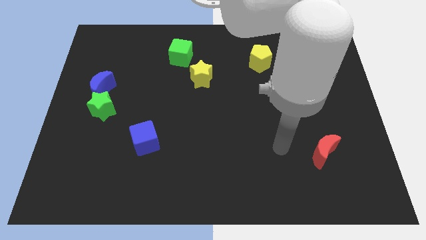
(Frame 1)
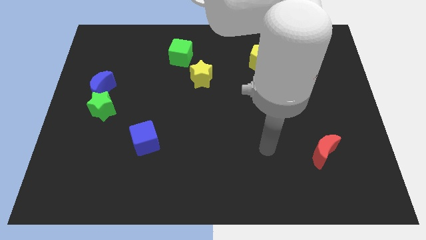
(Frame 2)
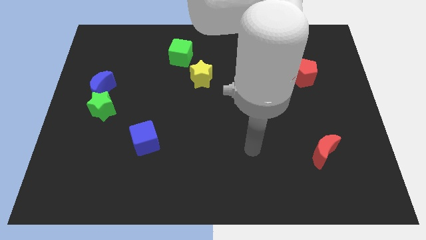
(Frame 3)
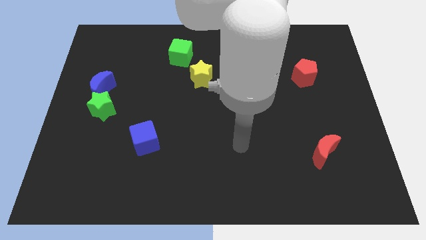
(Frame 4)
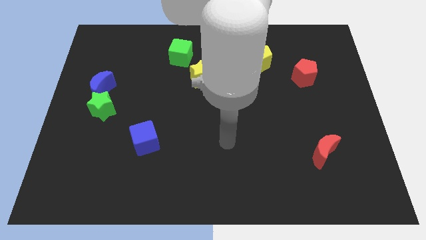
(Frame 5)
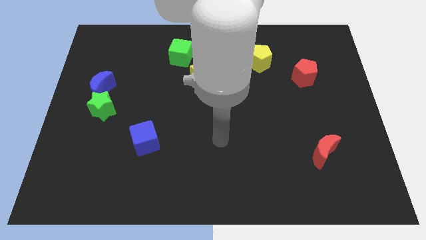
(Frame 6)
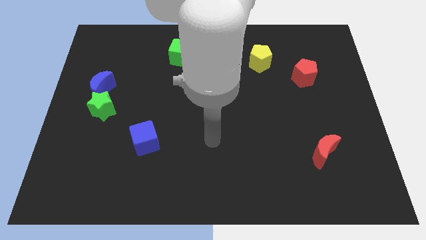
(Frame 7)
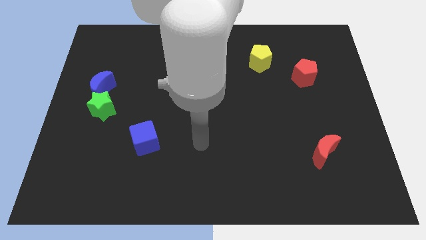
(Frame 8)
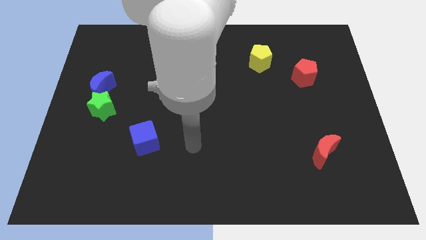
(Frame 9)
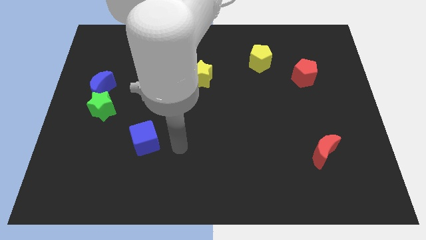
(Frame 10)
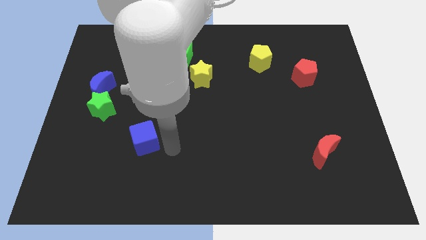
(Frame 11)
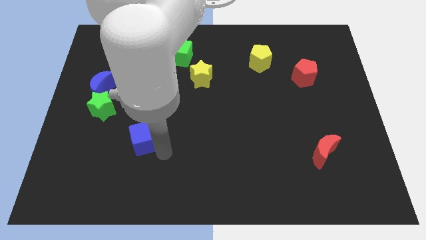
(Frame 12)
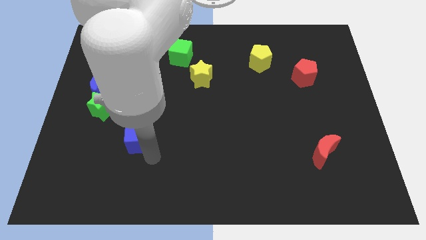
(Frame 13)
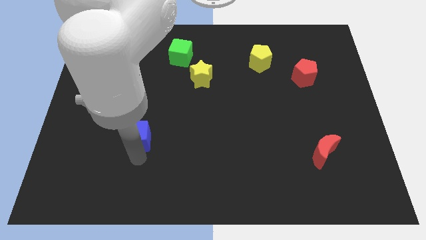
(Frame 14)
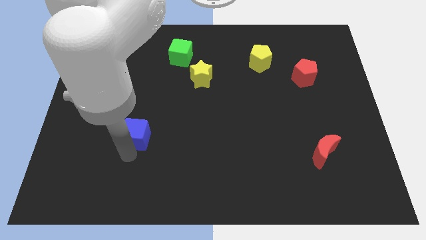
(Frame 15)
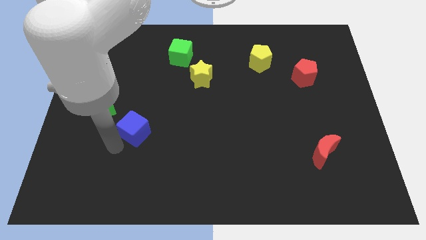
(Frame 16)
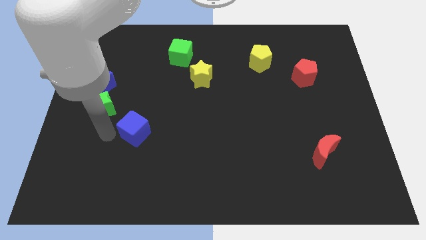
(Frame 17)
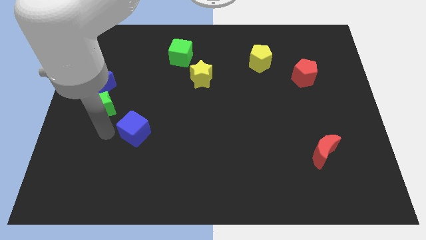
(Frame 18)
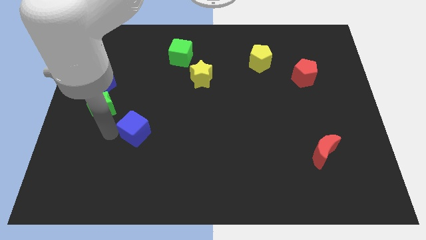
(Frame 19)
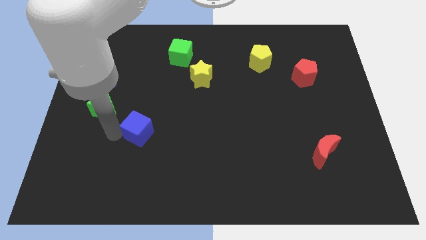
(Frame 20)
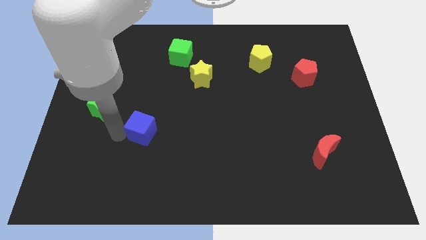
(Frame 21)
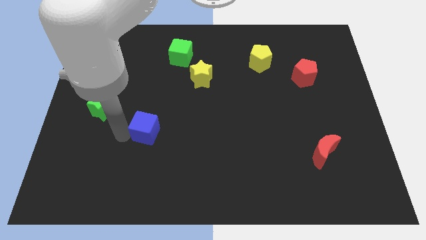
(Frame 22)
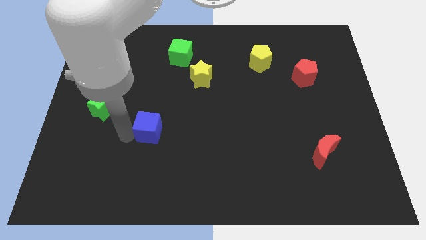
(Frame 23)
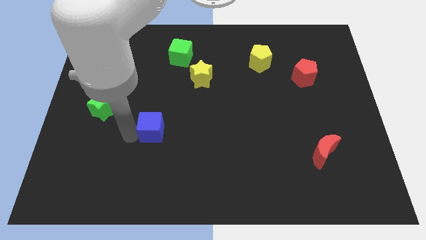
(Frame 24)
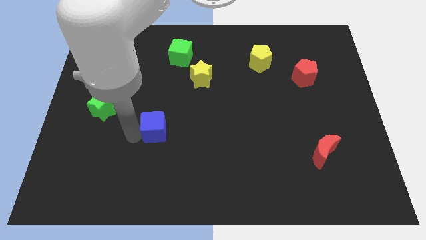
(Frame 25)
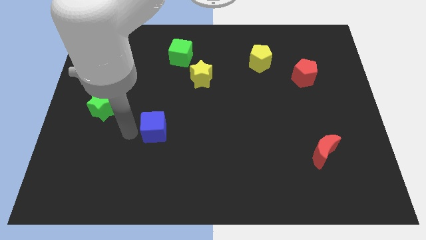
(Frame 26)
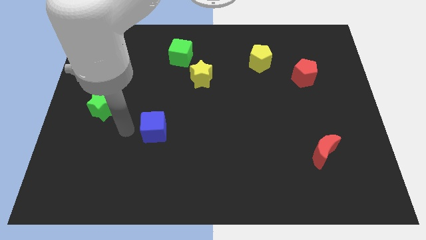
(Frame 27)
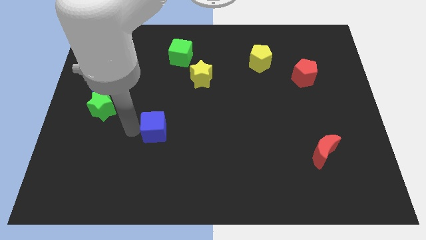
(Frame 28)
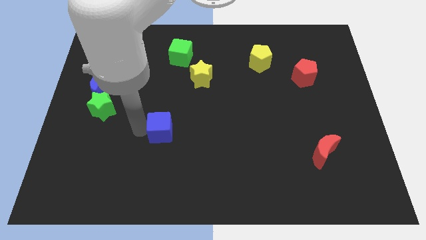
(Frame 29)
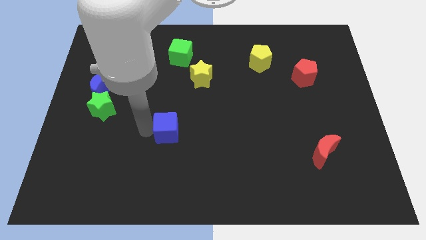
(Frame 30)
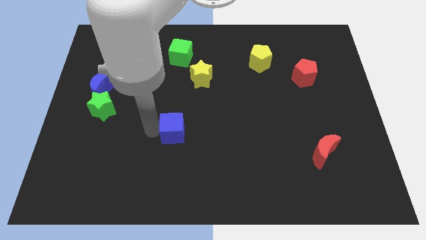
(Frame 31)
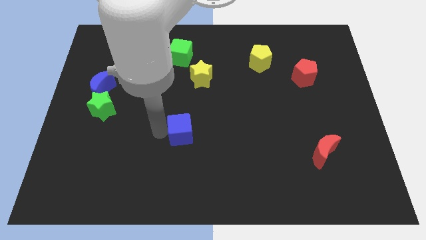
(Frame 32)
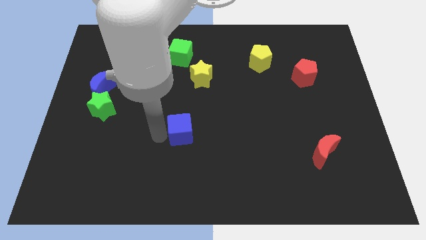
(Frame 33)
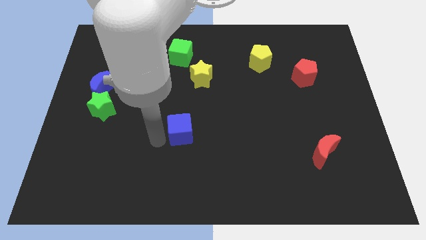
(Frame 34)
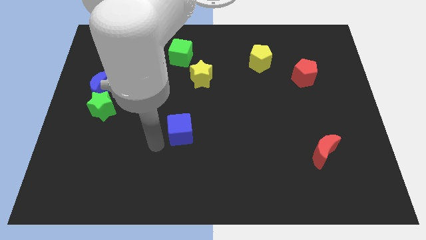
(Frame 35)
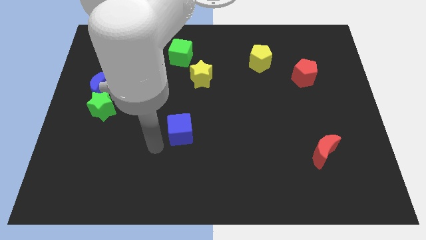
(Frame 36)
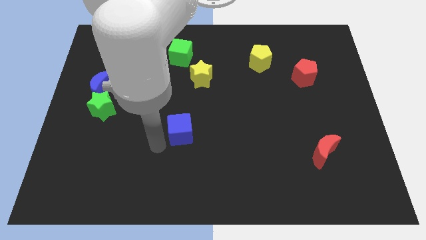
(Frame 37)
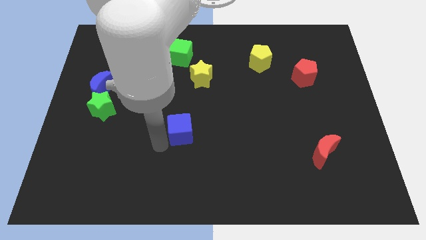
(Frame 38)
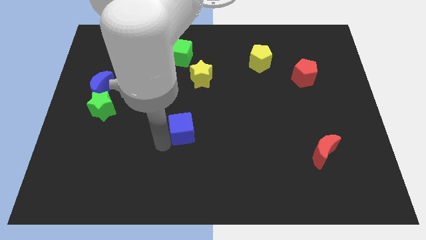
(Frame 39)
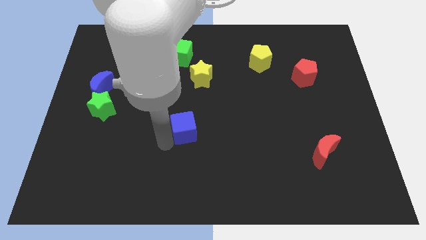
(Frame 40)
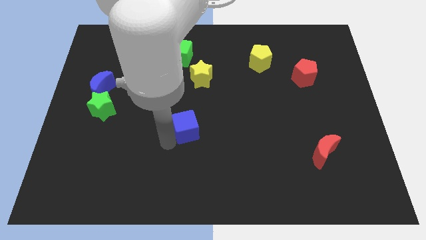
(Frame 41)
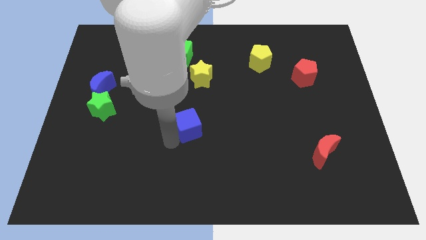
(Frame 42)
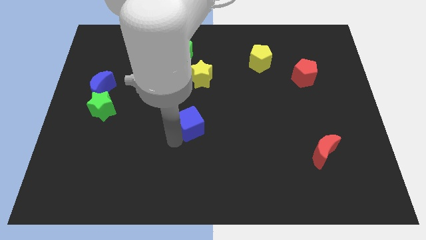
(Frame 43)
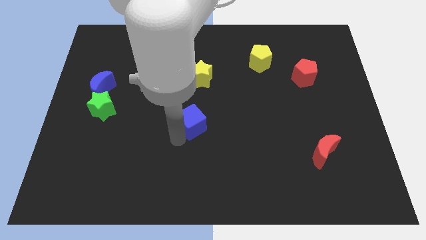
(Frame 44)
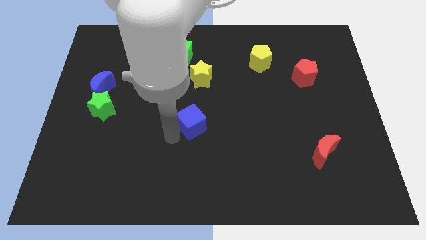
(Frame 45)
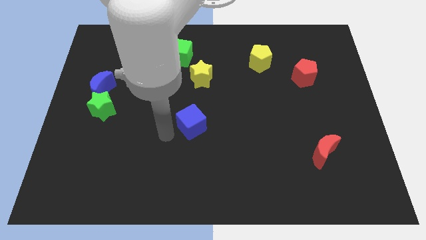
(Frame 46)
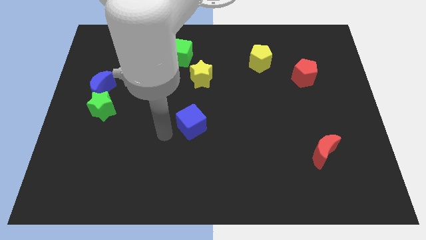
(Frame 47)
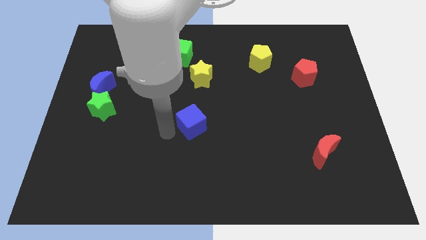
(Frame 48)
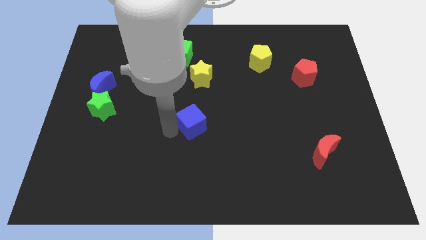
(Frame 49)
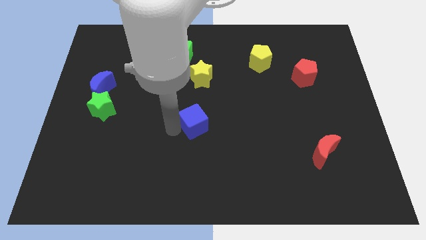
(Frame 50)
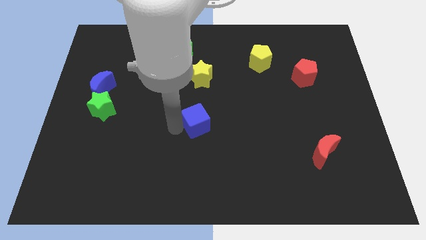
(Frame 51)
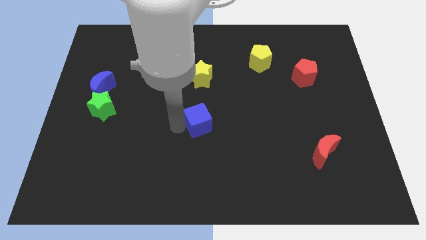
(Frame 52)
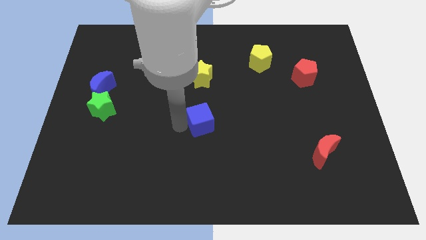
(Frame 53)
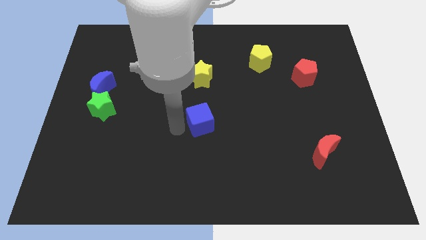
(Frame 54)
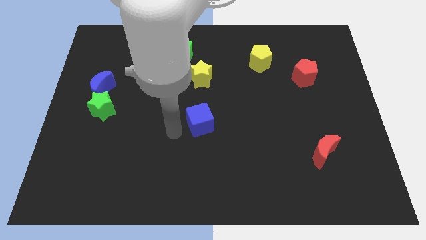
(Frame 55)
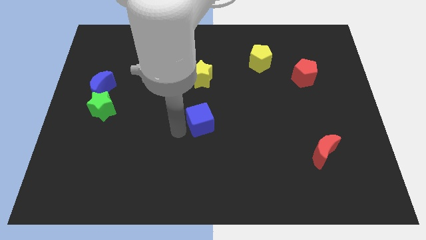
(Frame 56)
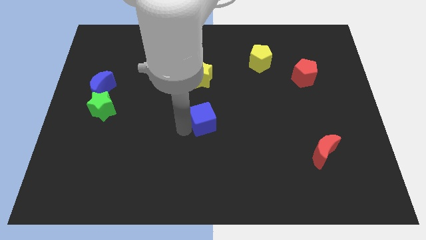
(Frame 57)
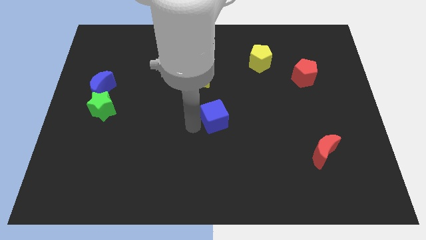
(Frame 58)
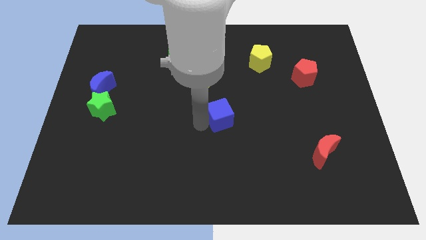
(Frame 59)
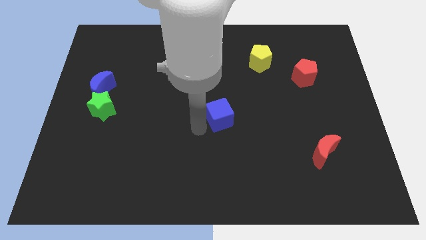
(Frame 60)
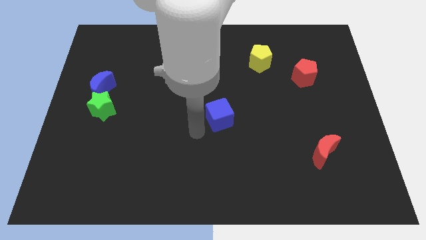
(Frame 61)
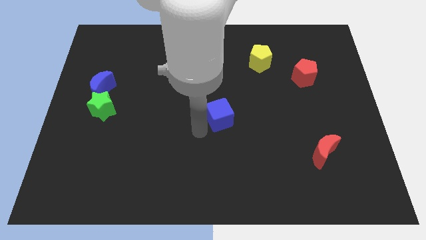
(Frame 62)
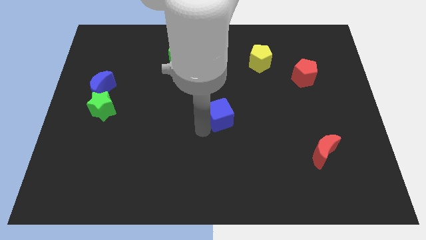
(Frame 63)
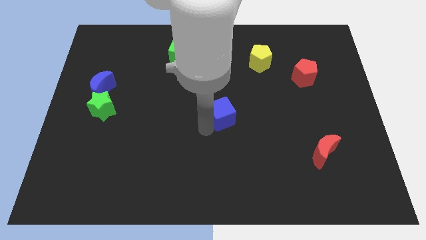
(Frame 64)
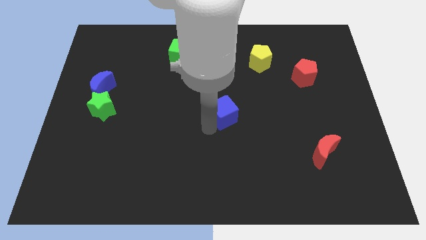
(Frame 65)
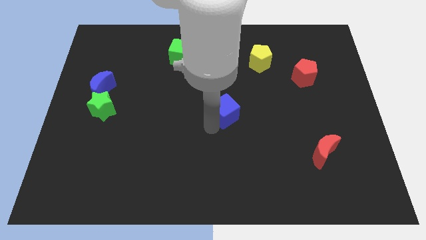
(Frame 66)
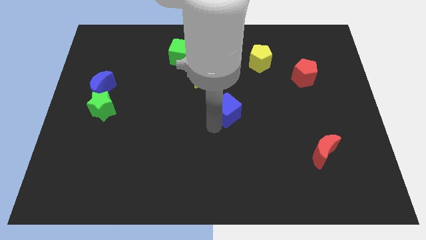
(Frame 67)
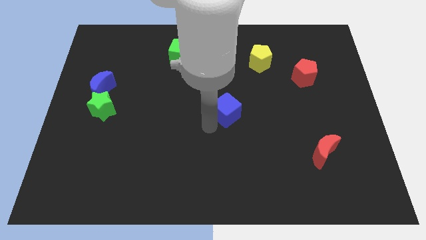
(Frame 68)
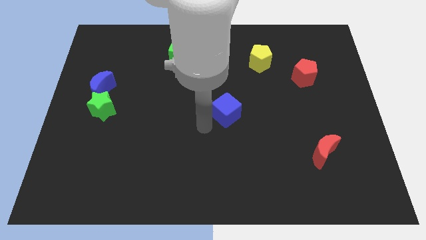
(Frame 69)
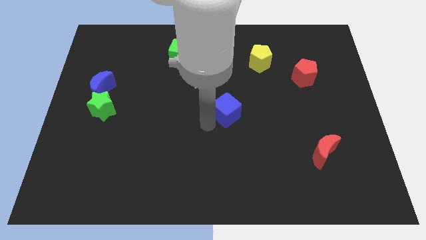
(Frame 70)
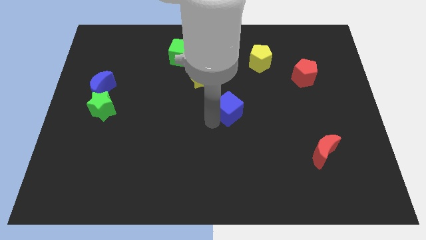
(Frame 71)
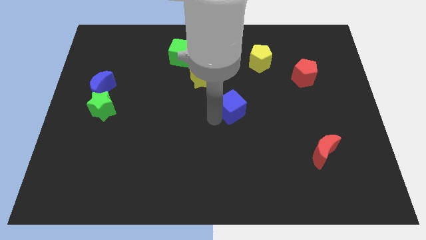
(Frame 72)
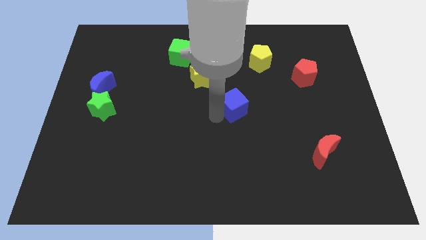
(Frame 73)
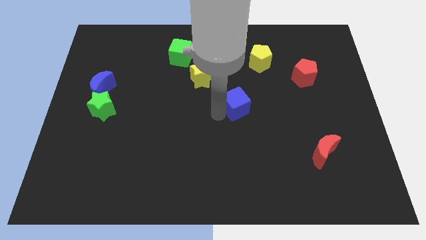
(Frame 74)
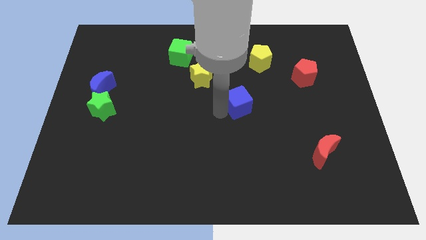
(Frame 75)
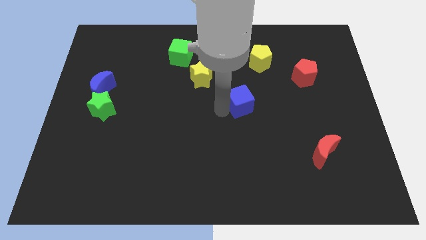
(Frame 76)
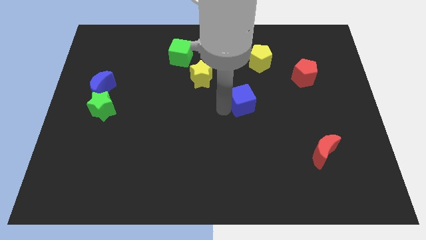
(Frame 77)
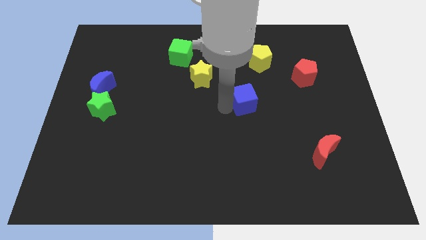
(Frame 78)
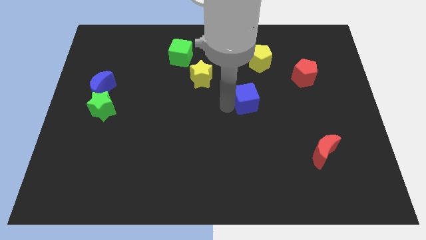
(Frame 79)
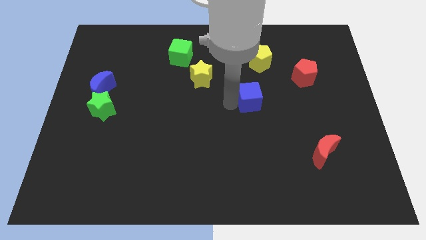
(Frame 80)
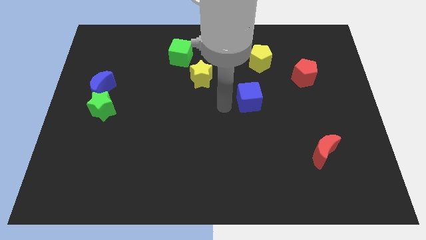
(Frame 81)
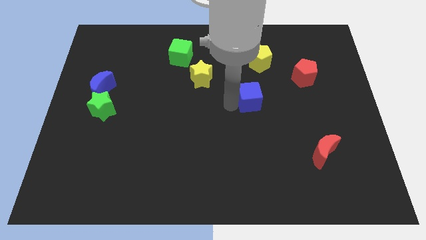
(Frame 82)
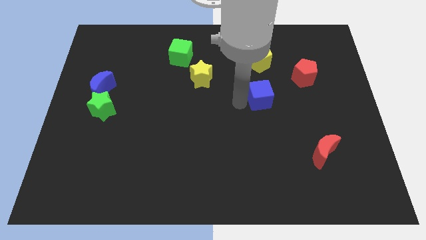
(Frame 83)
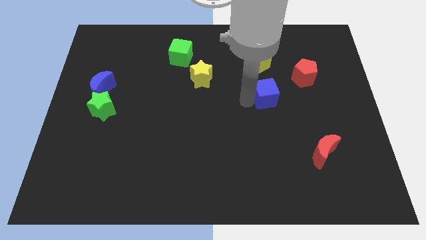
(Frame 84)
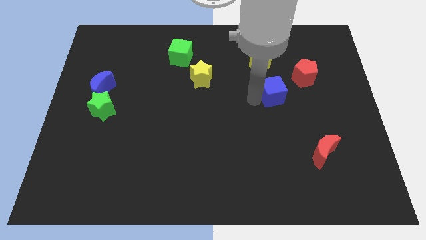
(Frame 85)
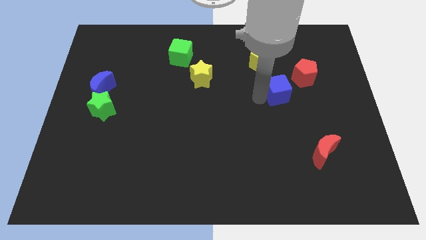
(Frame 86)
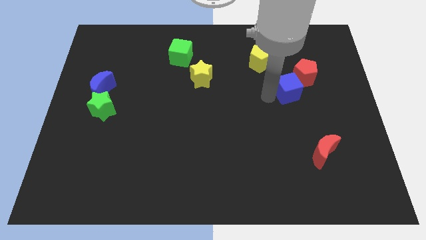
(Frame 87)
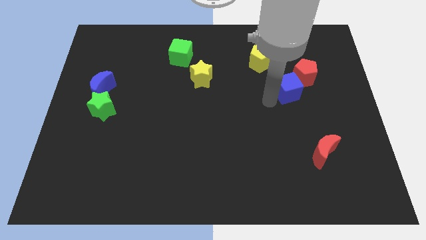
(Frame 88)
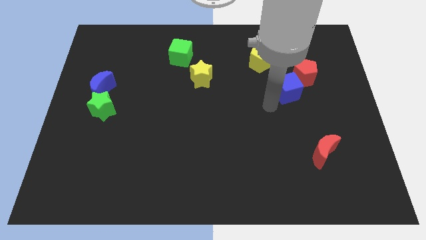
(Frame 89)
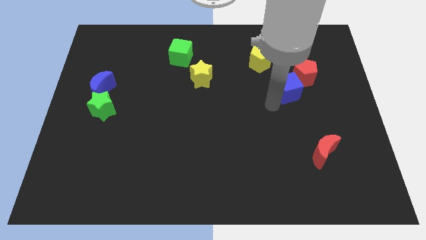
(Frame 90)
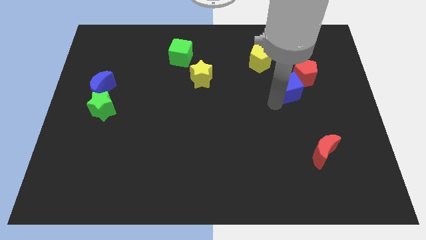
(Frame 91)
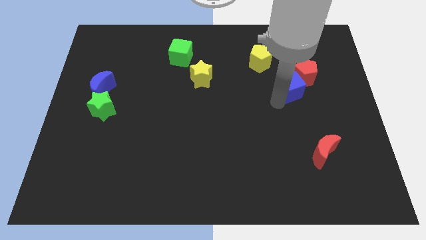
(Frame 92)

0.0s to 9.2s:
put the blue cube close to the red pentagon
